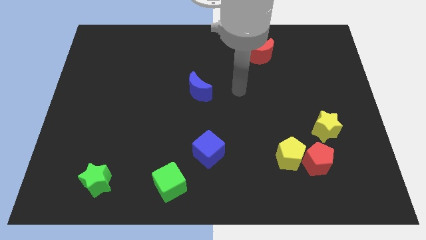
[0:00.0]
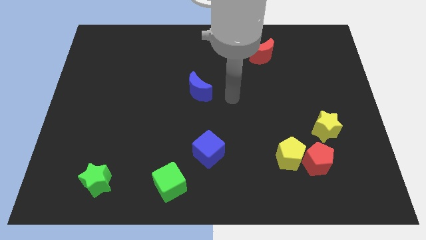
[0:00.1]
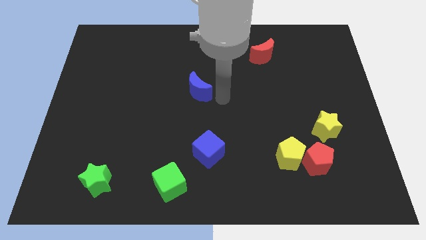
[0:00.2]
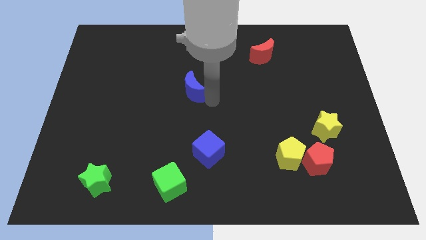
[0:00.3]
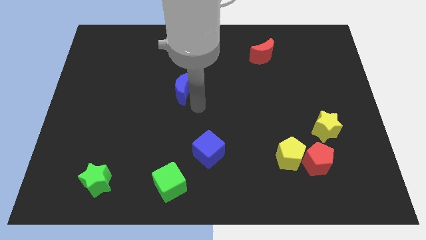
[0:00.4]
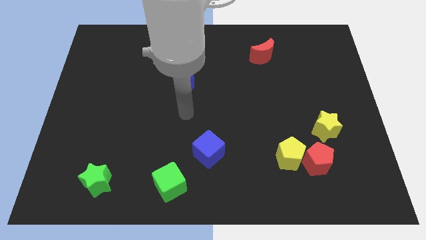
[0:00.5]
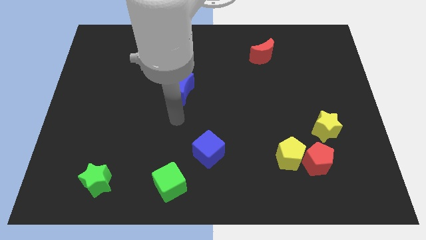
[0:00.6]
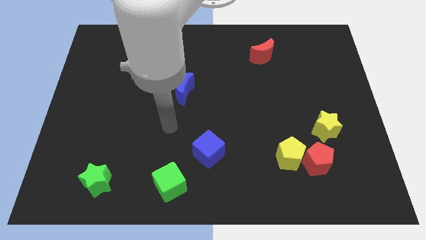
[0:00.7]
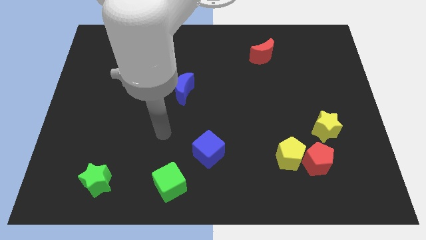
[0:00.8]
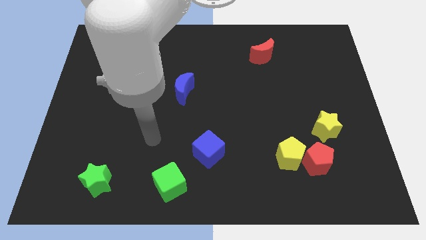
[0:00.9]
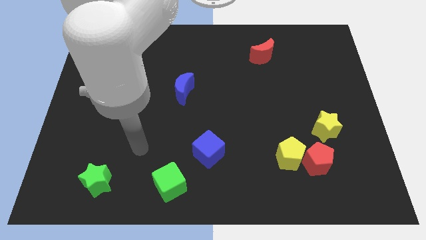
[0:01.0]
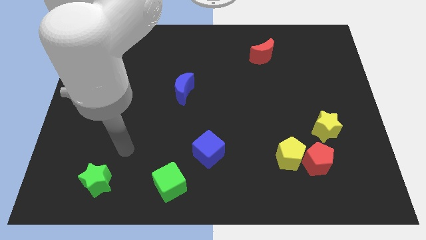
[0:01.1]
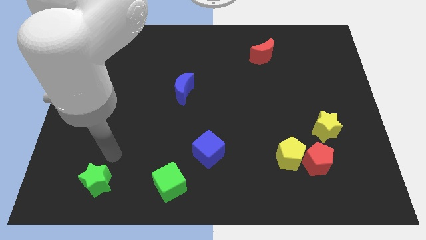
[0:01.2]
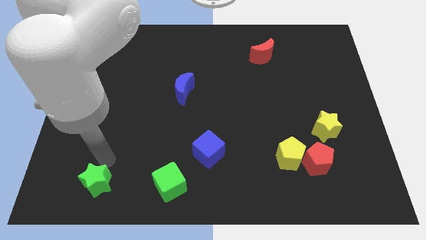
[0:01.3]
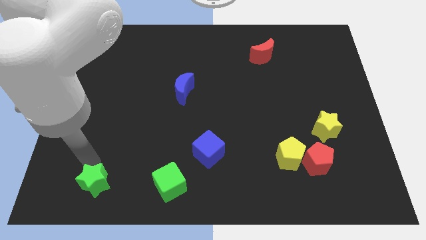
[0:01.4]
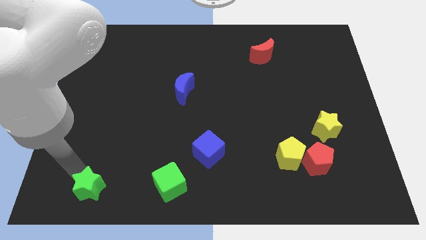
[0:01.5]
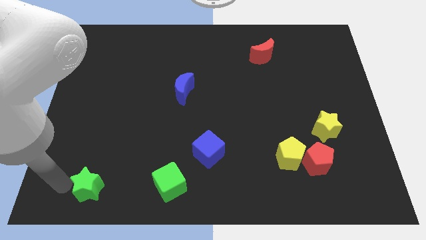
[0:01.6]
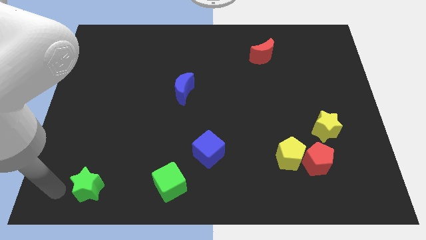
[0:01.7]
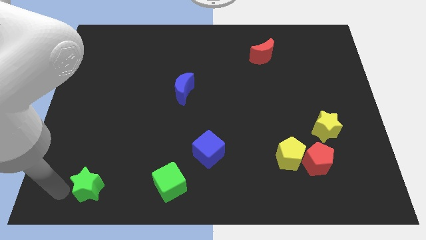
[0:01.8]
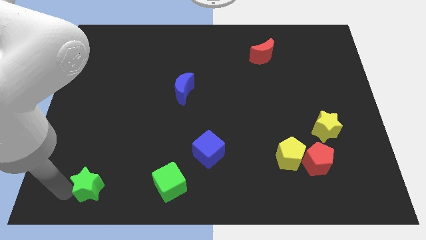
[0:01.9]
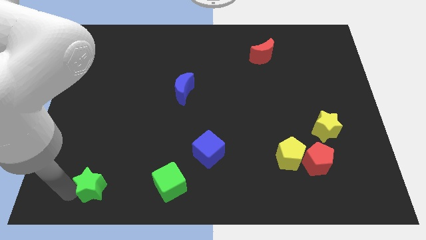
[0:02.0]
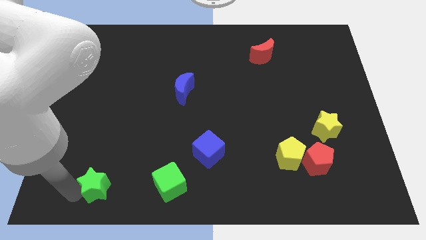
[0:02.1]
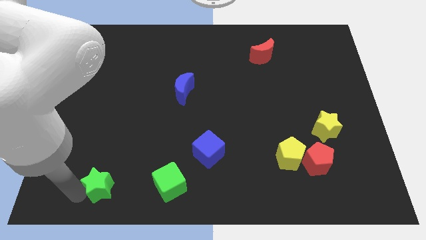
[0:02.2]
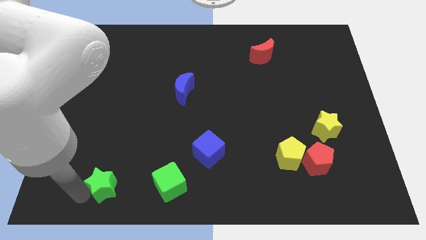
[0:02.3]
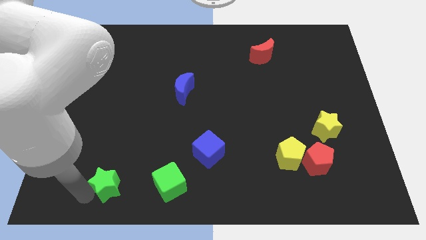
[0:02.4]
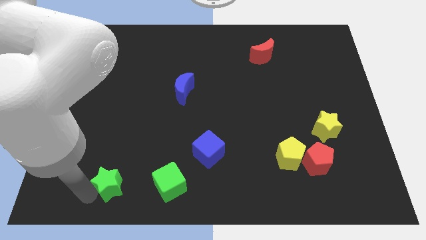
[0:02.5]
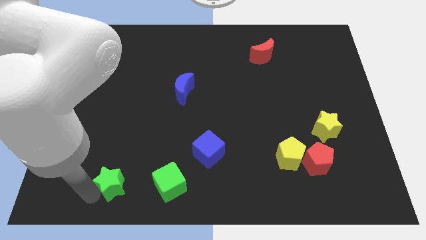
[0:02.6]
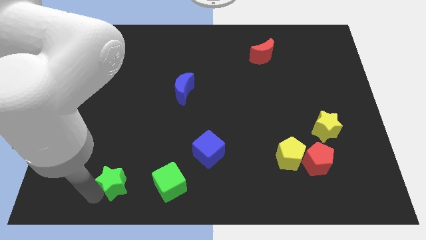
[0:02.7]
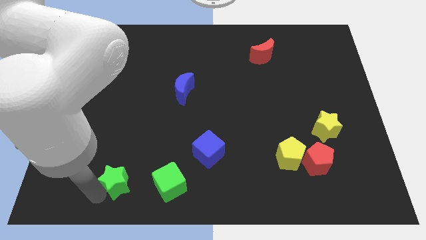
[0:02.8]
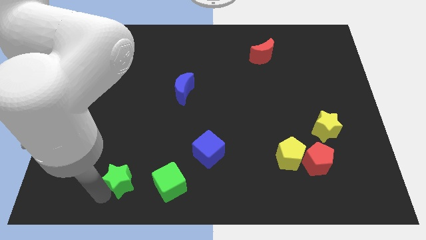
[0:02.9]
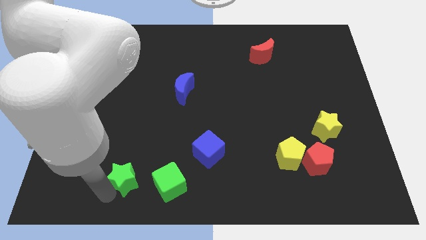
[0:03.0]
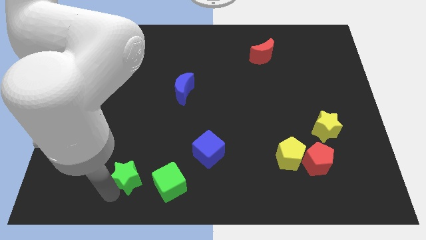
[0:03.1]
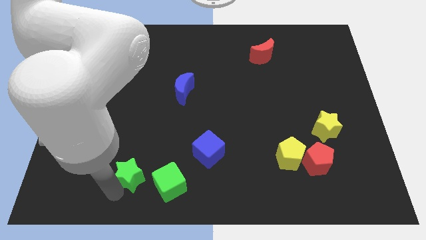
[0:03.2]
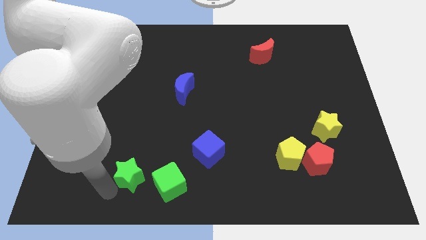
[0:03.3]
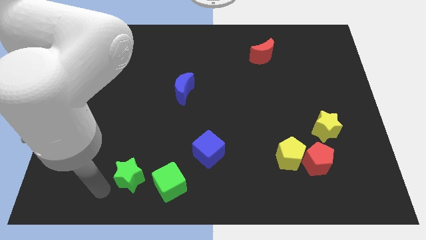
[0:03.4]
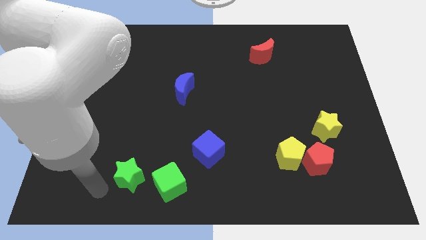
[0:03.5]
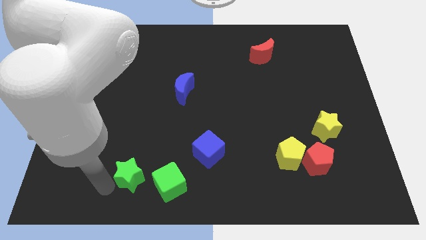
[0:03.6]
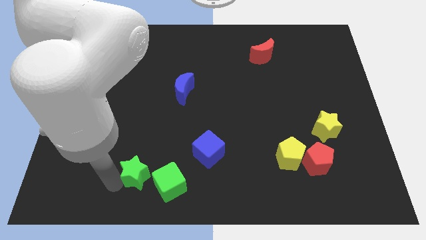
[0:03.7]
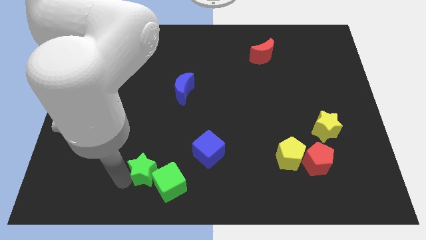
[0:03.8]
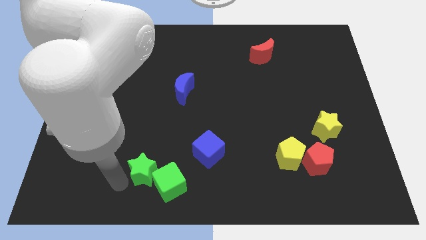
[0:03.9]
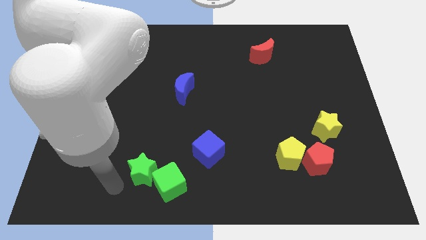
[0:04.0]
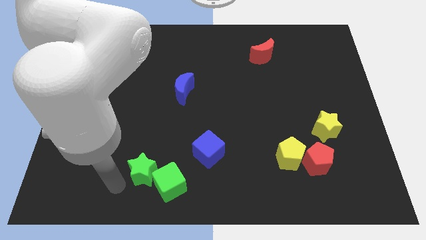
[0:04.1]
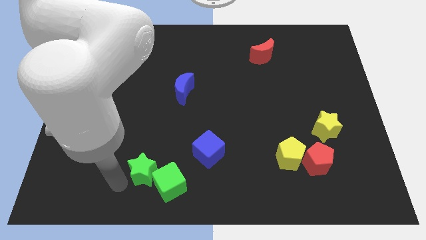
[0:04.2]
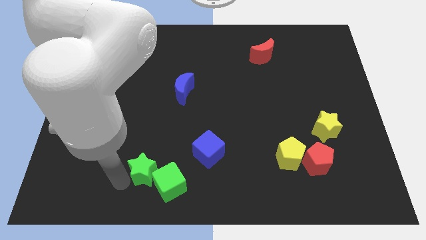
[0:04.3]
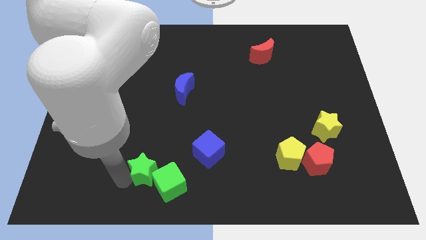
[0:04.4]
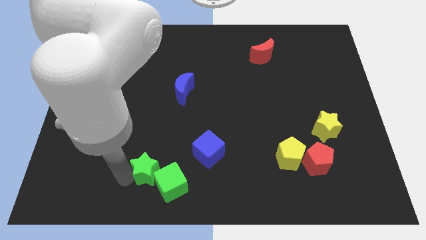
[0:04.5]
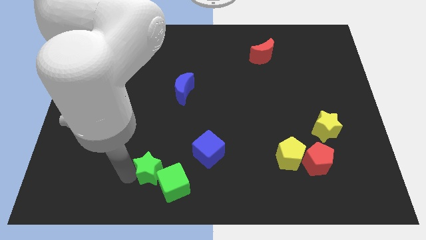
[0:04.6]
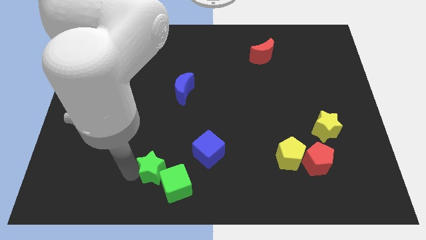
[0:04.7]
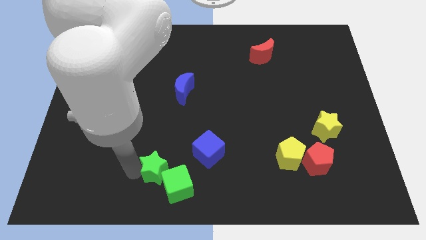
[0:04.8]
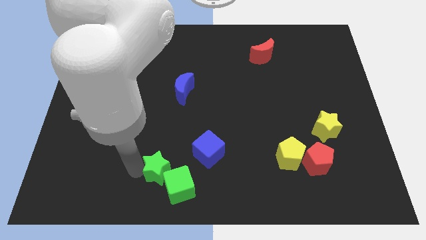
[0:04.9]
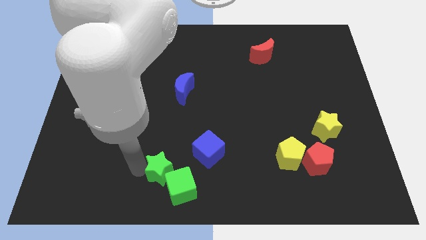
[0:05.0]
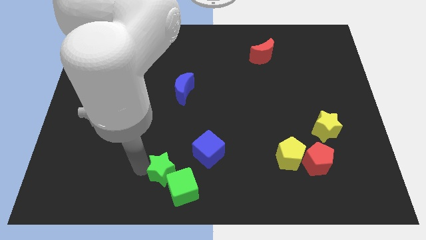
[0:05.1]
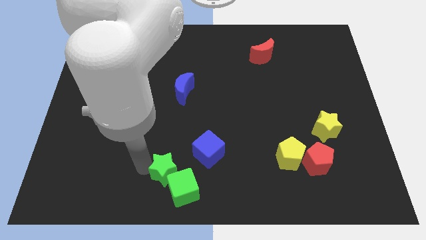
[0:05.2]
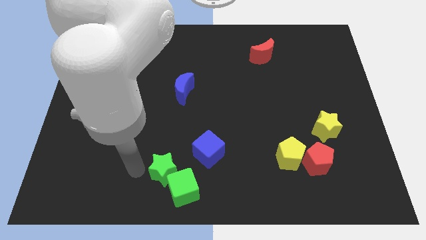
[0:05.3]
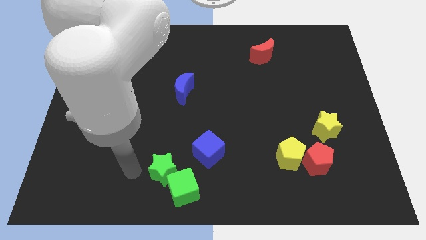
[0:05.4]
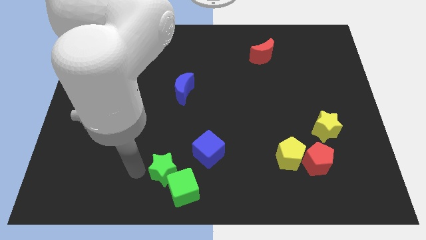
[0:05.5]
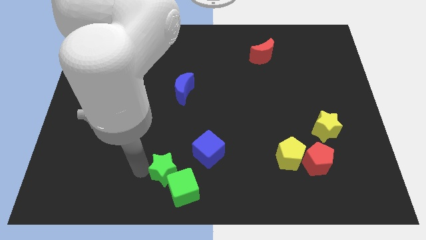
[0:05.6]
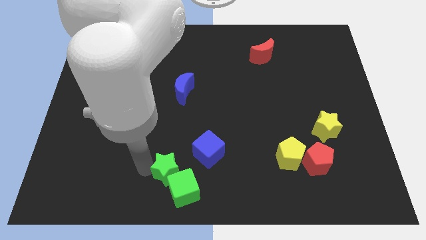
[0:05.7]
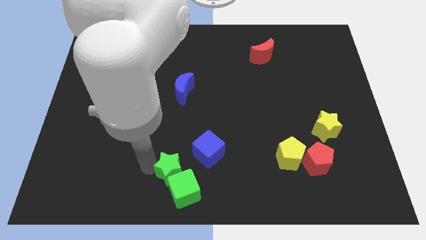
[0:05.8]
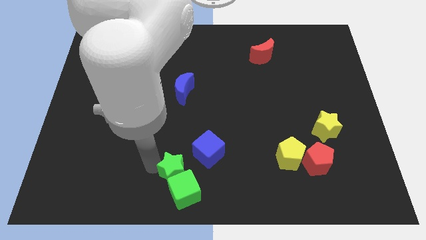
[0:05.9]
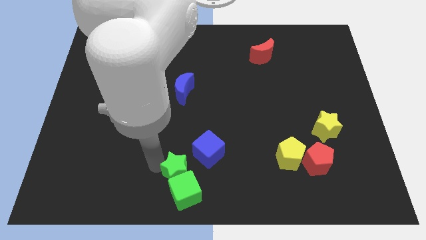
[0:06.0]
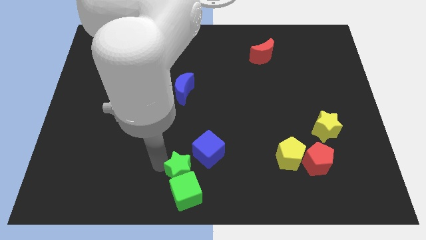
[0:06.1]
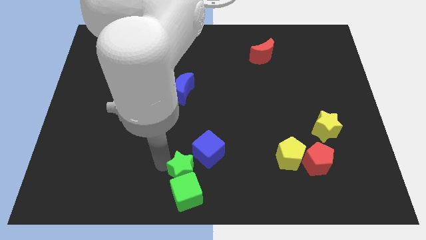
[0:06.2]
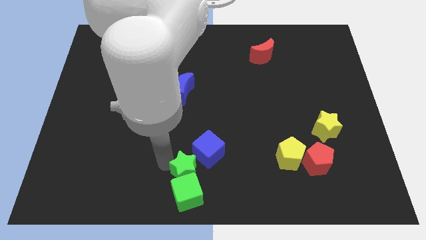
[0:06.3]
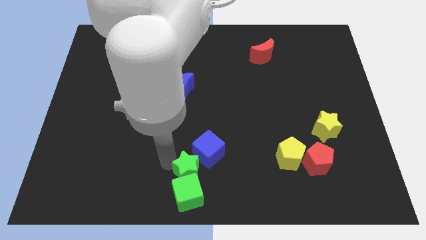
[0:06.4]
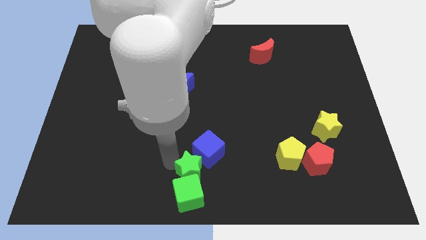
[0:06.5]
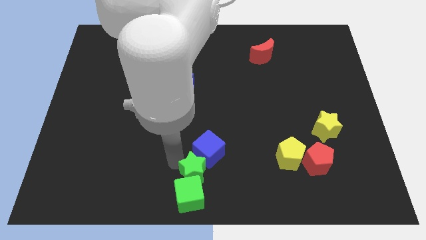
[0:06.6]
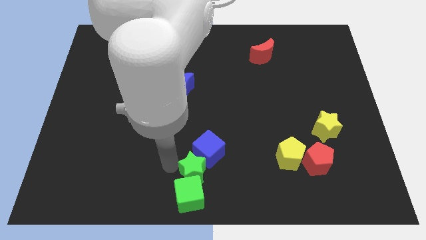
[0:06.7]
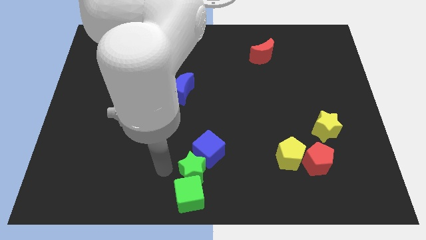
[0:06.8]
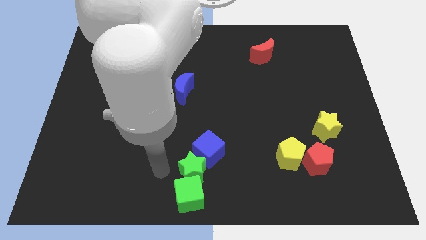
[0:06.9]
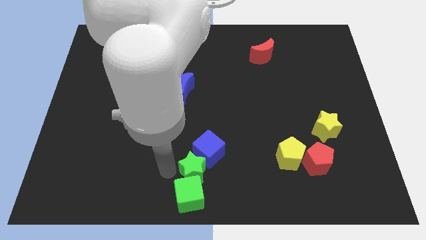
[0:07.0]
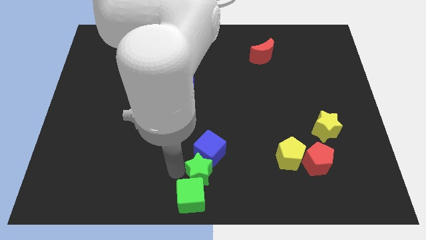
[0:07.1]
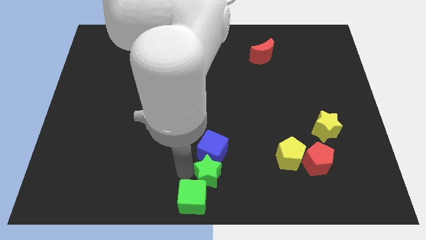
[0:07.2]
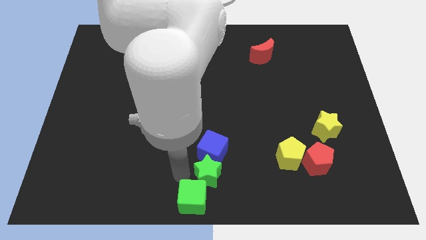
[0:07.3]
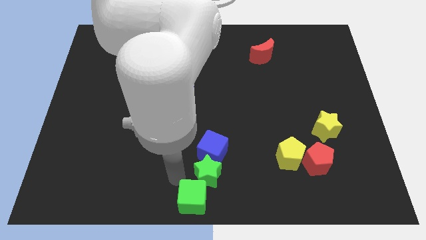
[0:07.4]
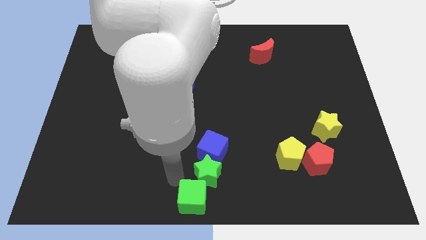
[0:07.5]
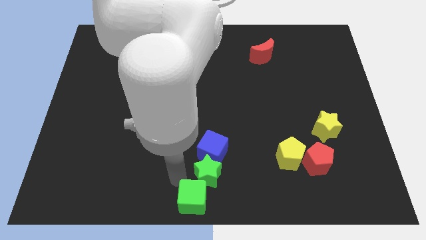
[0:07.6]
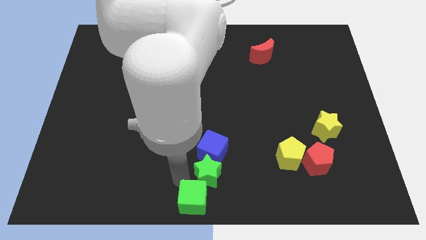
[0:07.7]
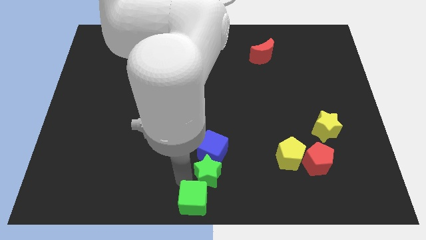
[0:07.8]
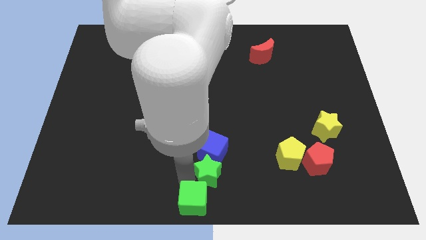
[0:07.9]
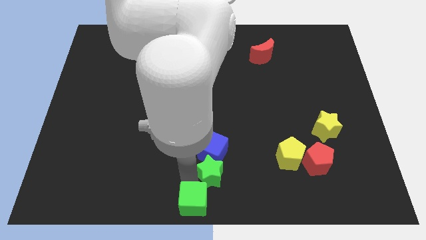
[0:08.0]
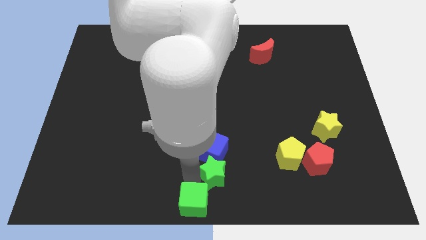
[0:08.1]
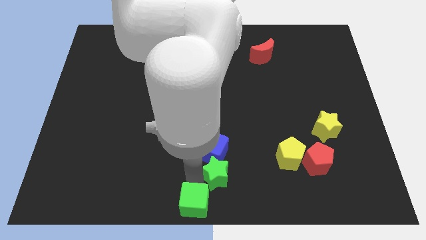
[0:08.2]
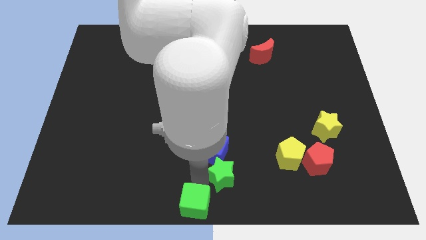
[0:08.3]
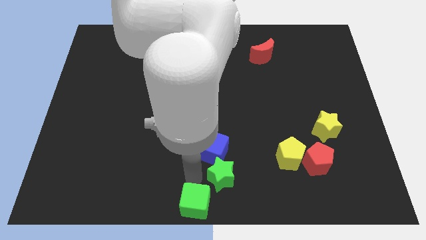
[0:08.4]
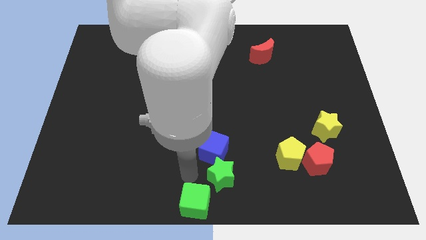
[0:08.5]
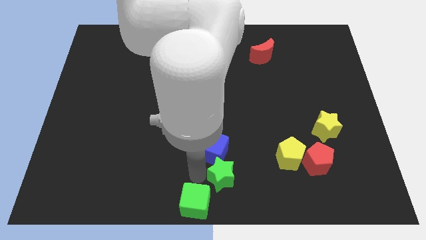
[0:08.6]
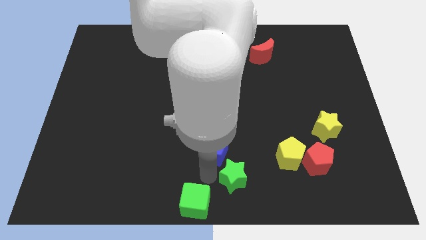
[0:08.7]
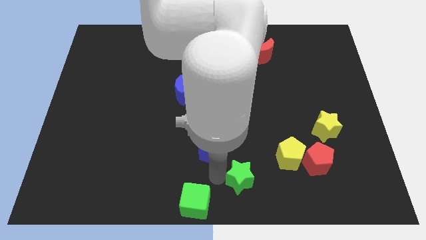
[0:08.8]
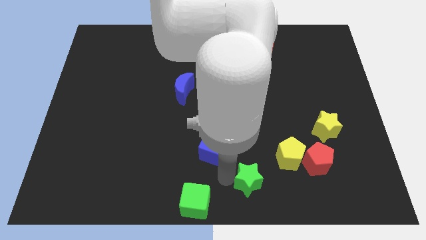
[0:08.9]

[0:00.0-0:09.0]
push the green star to the bottom left side of the yellow pentagon
